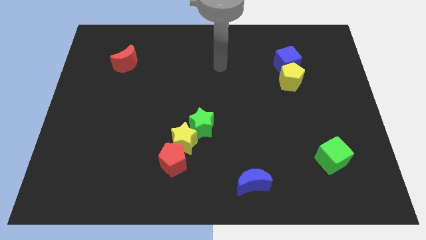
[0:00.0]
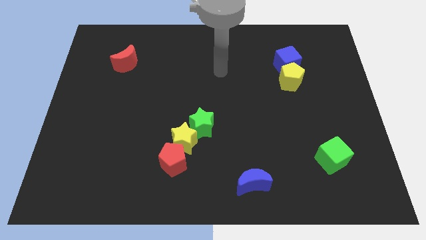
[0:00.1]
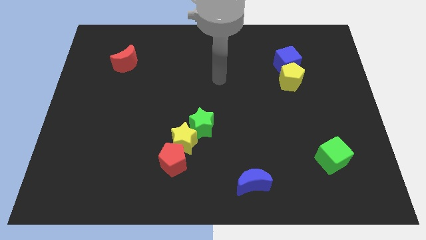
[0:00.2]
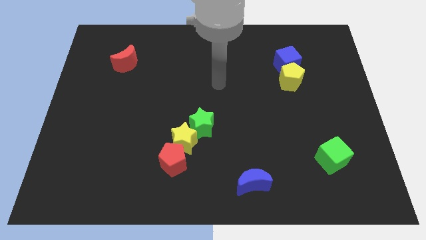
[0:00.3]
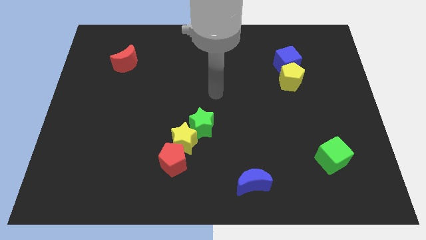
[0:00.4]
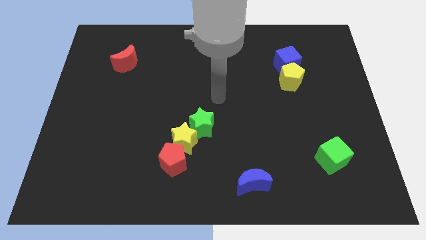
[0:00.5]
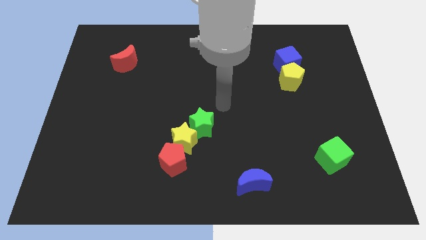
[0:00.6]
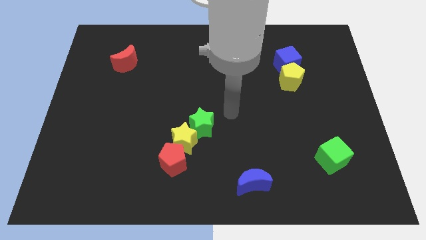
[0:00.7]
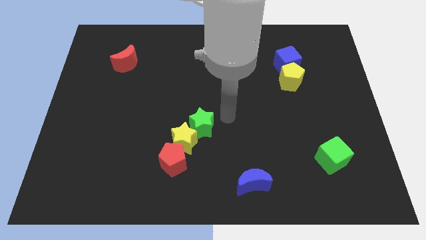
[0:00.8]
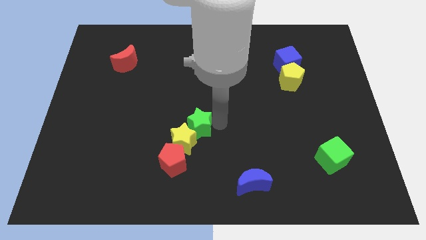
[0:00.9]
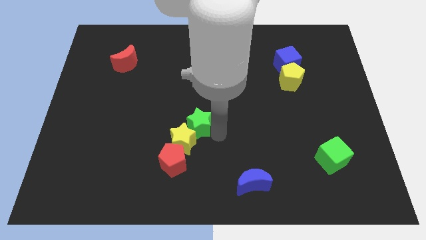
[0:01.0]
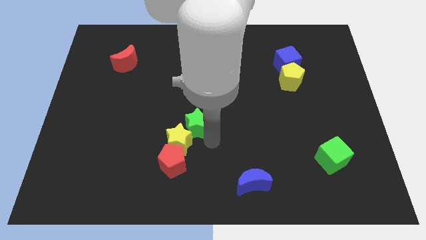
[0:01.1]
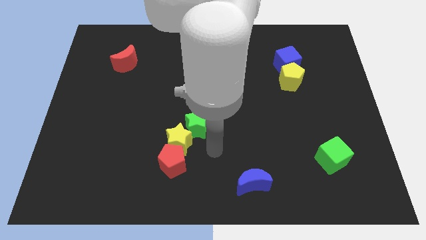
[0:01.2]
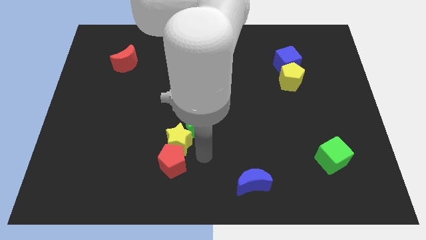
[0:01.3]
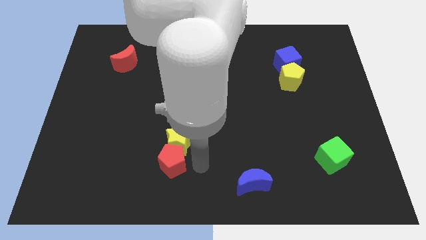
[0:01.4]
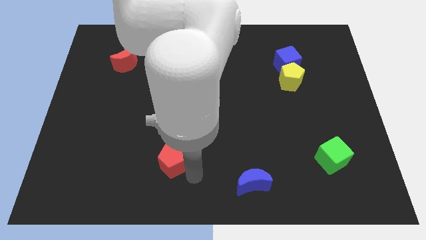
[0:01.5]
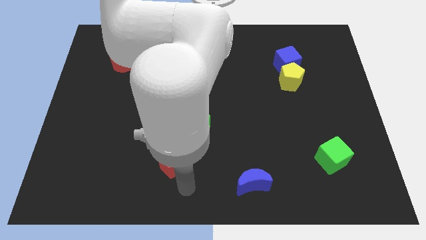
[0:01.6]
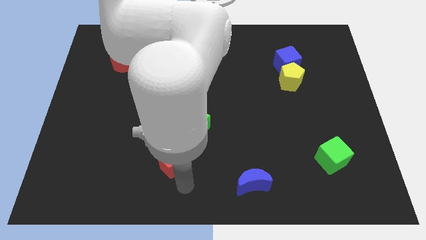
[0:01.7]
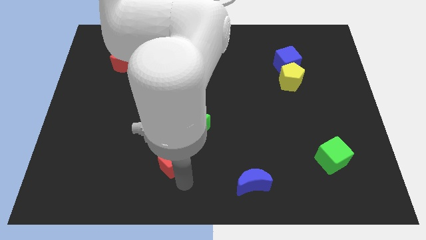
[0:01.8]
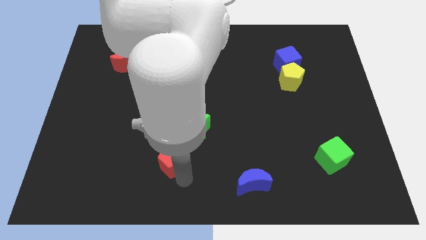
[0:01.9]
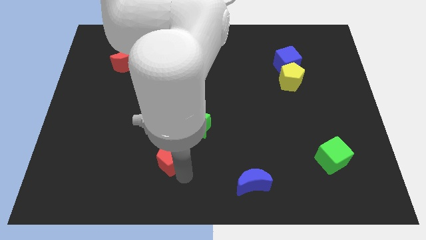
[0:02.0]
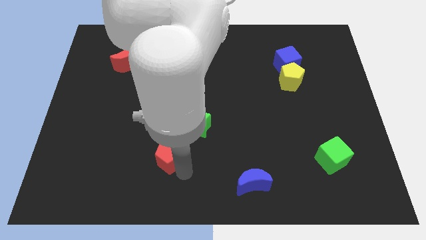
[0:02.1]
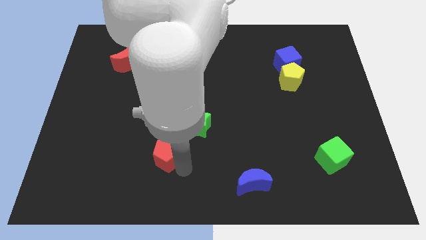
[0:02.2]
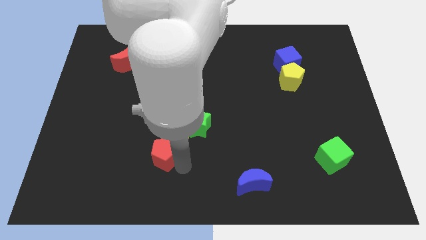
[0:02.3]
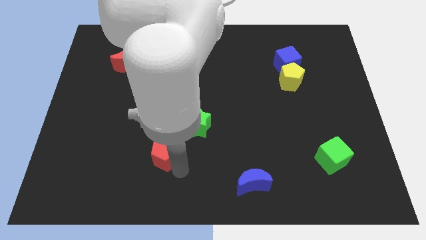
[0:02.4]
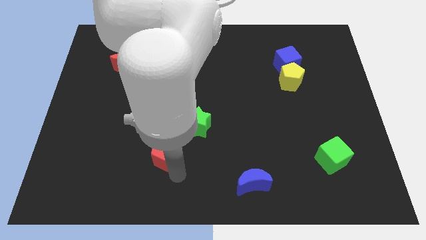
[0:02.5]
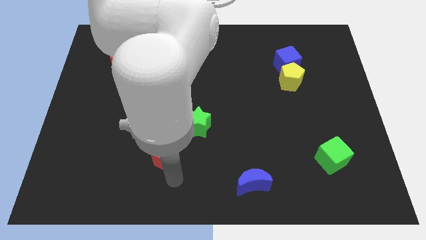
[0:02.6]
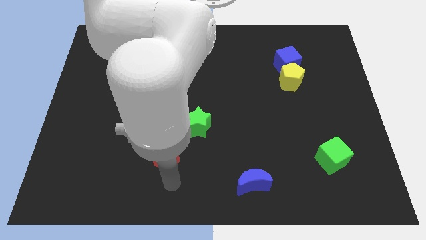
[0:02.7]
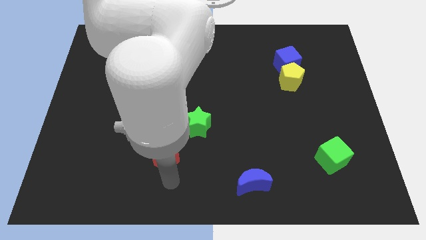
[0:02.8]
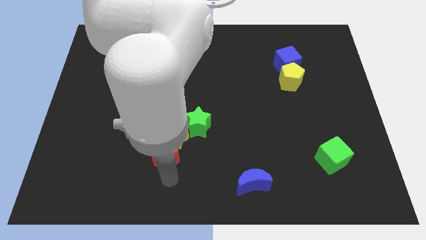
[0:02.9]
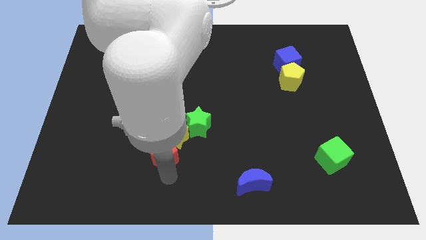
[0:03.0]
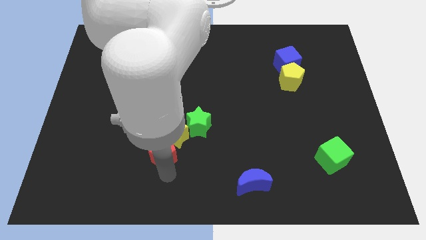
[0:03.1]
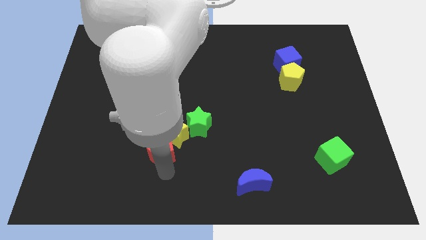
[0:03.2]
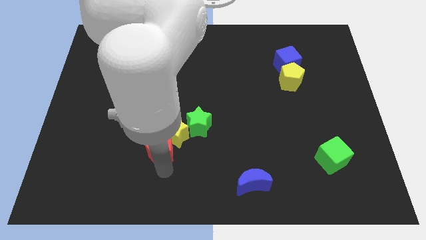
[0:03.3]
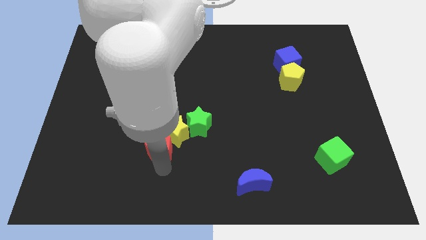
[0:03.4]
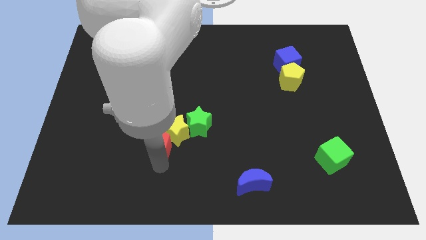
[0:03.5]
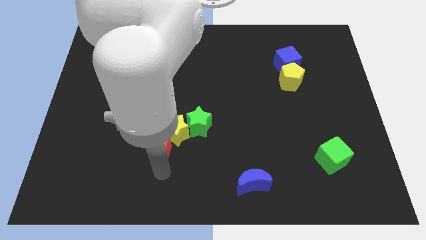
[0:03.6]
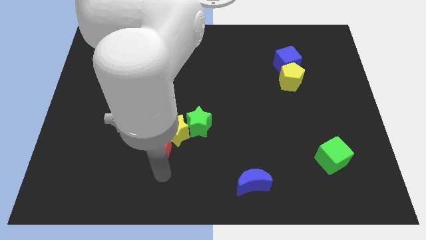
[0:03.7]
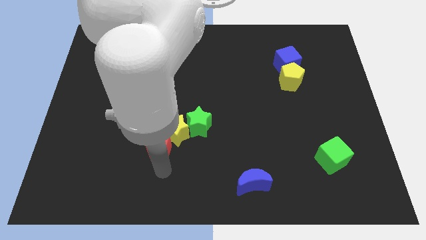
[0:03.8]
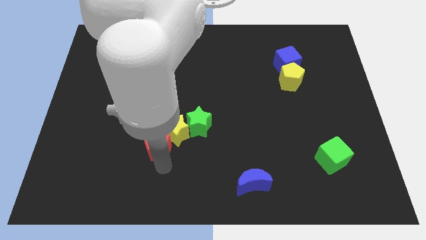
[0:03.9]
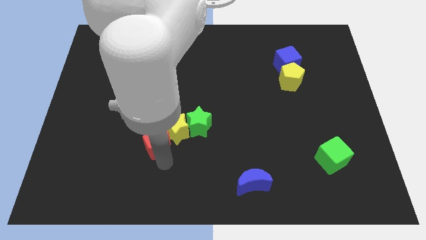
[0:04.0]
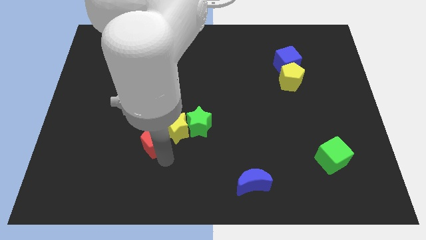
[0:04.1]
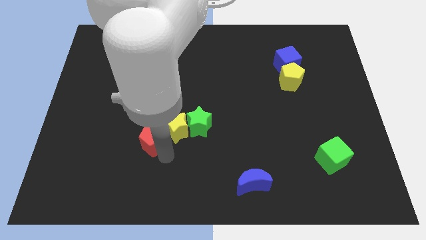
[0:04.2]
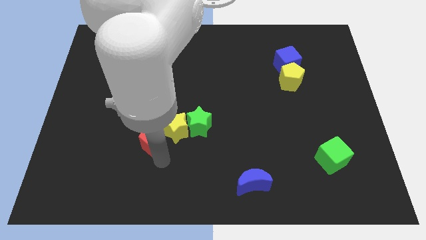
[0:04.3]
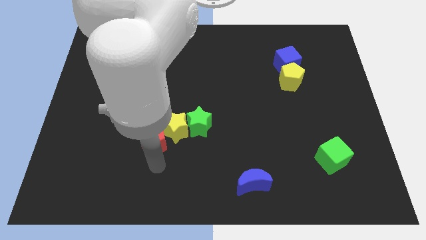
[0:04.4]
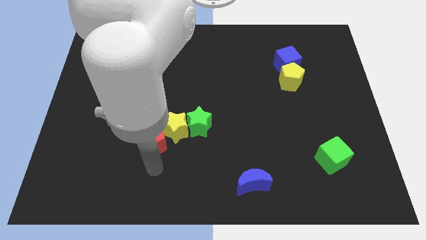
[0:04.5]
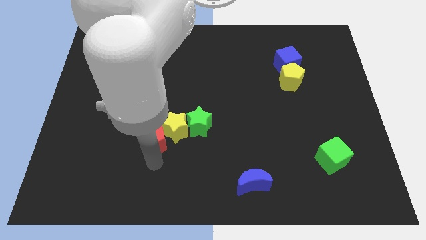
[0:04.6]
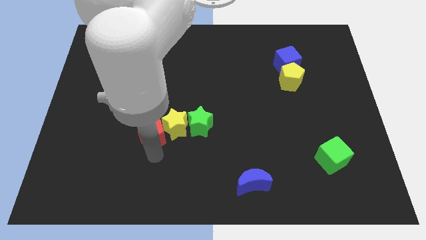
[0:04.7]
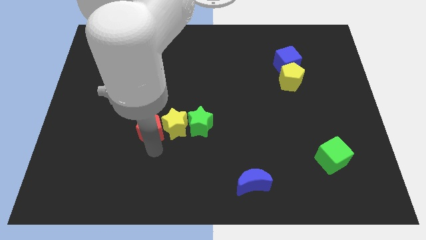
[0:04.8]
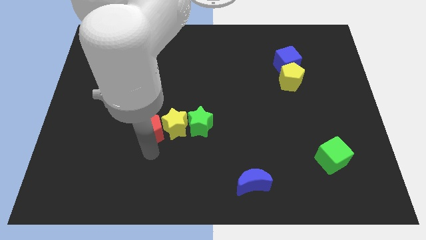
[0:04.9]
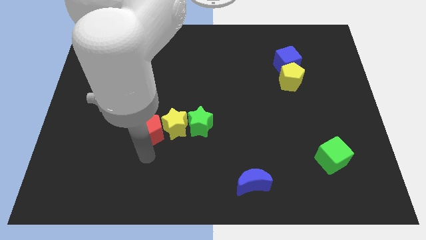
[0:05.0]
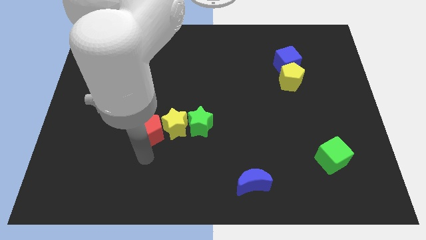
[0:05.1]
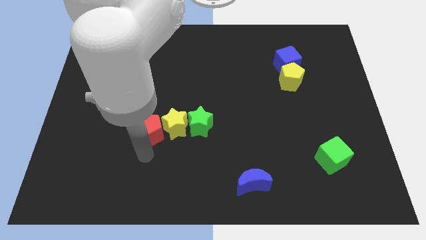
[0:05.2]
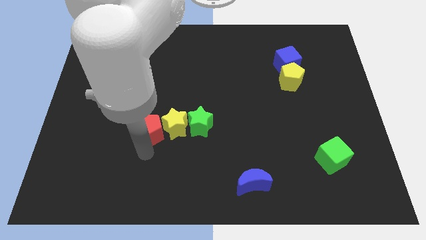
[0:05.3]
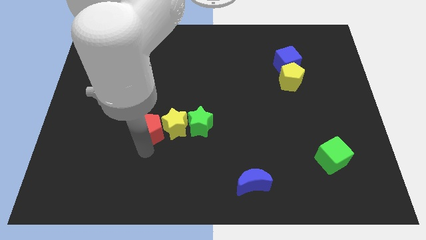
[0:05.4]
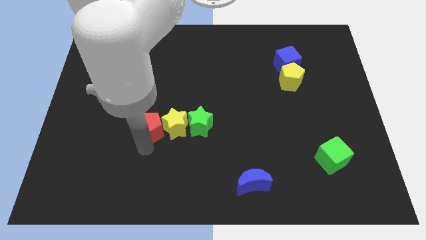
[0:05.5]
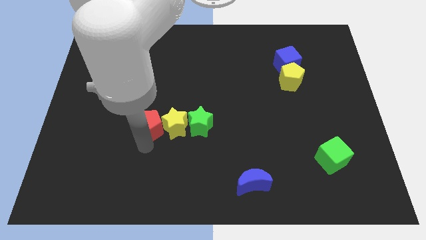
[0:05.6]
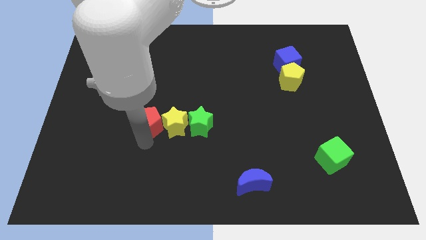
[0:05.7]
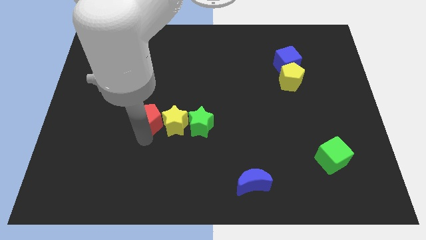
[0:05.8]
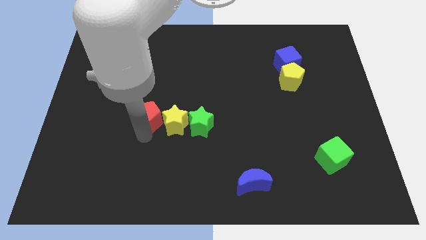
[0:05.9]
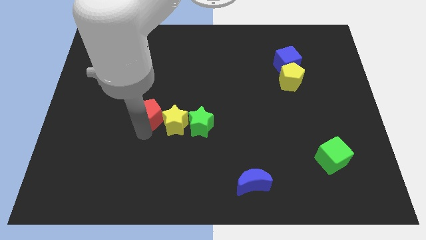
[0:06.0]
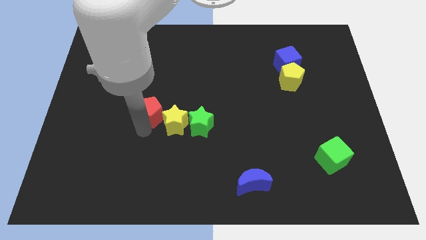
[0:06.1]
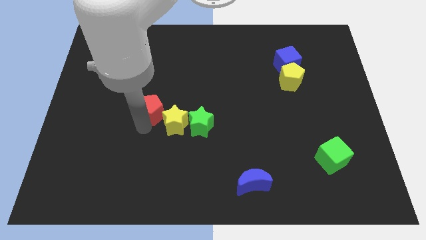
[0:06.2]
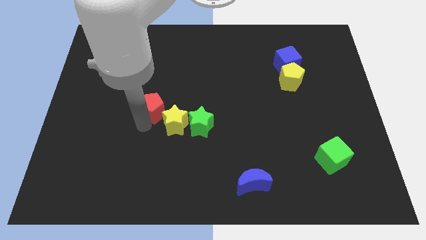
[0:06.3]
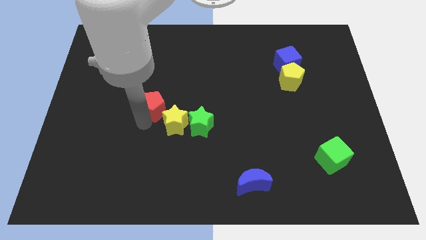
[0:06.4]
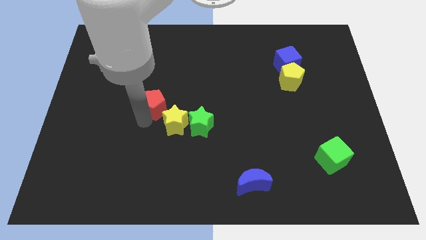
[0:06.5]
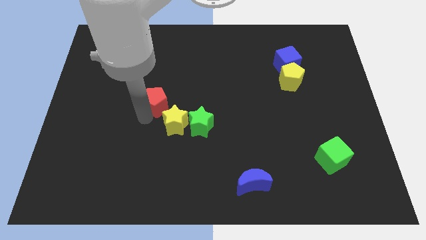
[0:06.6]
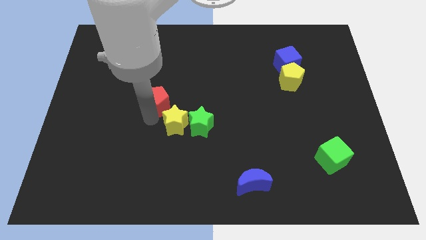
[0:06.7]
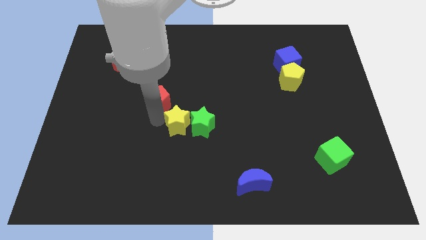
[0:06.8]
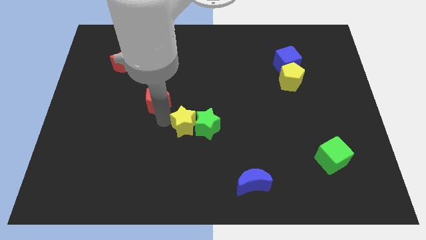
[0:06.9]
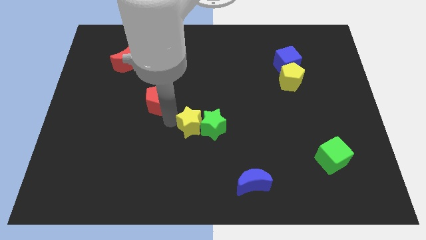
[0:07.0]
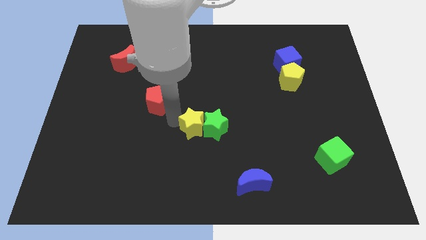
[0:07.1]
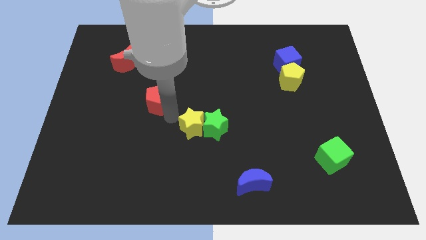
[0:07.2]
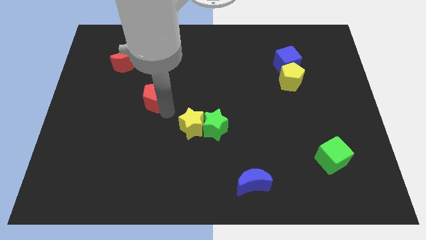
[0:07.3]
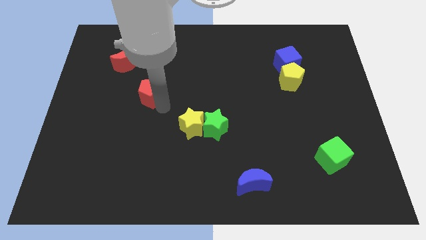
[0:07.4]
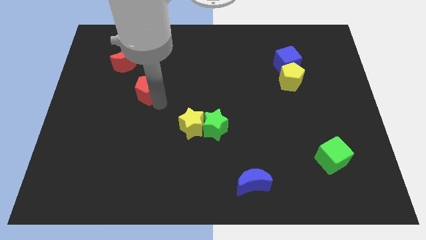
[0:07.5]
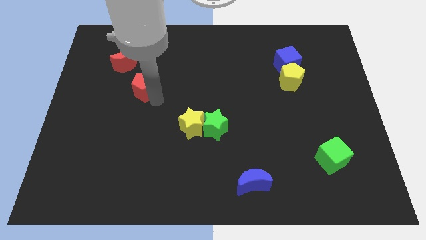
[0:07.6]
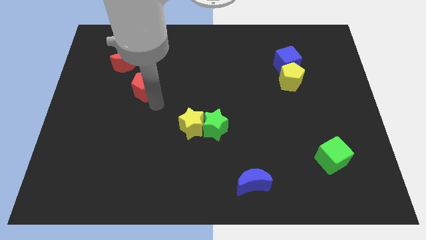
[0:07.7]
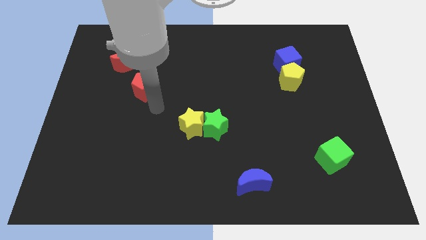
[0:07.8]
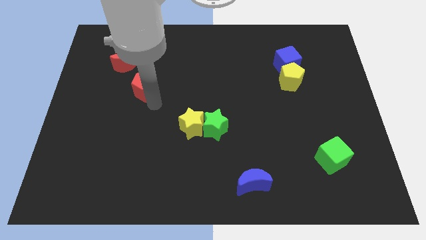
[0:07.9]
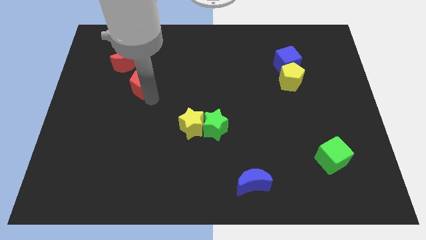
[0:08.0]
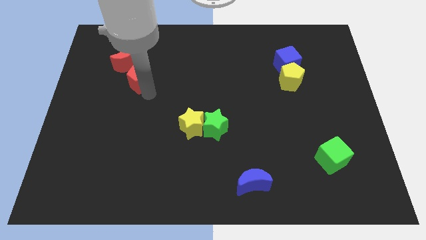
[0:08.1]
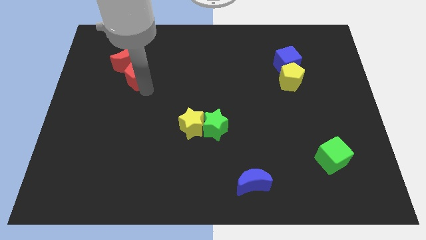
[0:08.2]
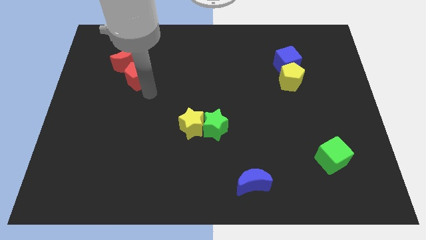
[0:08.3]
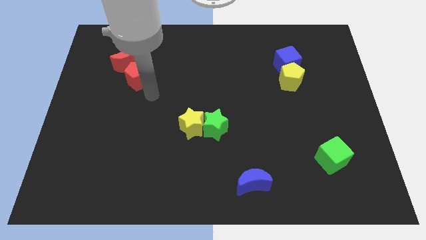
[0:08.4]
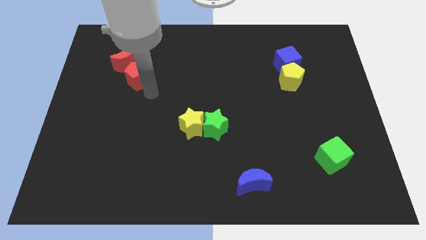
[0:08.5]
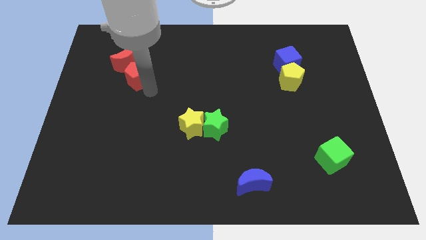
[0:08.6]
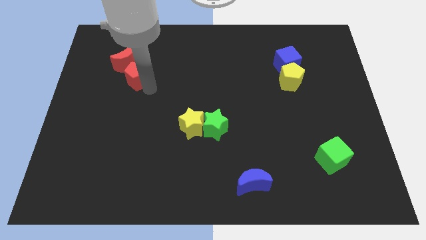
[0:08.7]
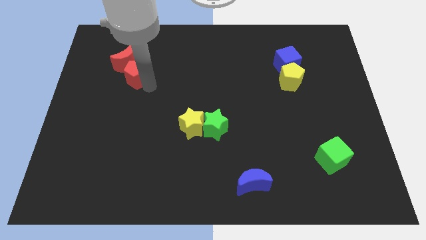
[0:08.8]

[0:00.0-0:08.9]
slide the red pentagon to the red moon
